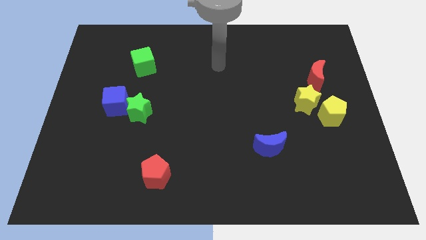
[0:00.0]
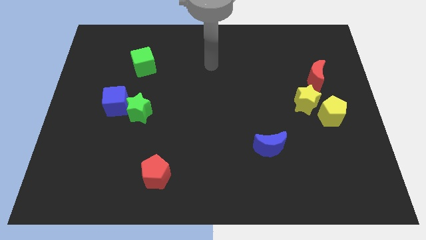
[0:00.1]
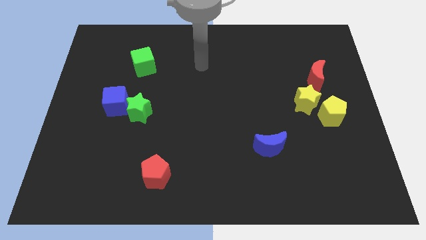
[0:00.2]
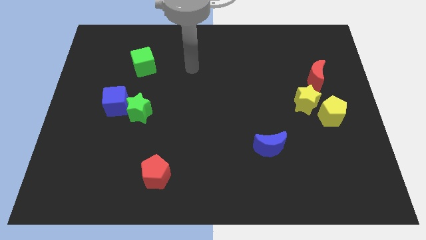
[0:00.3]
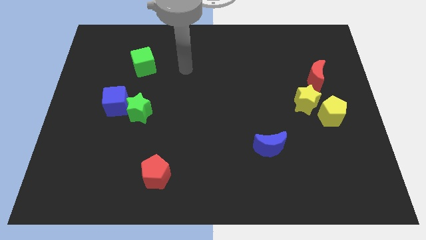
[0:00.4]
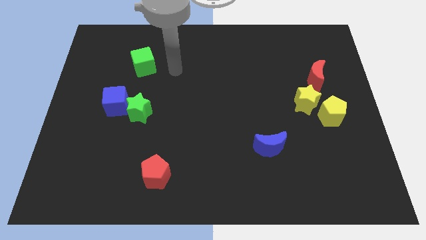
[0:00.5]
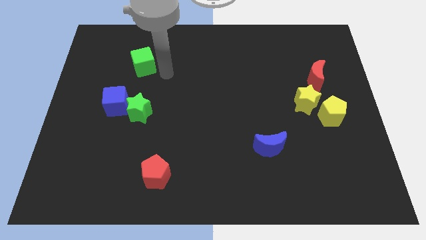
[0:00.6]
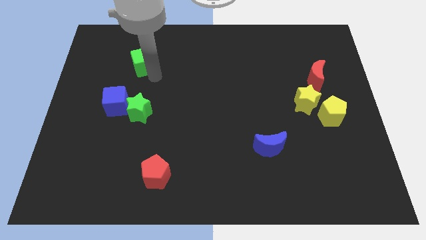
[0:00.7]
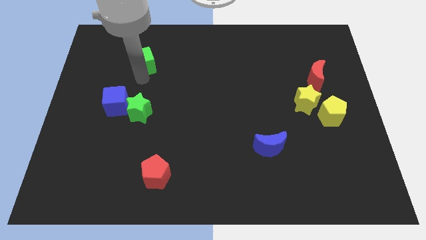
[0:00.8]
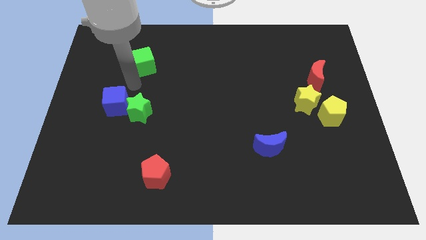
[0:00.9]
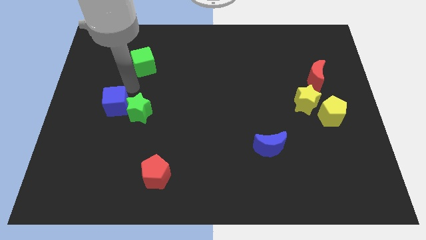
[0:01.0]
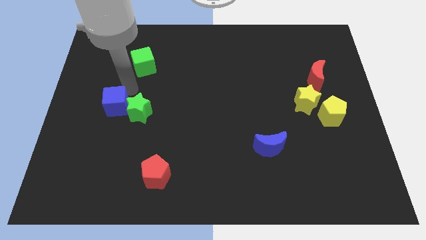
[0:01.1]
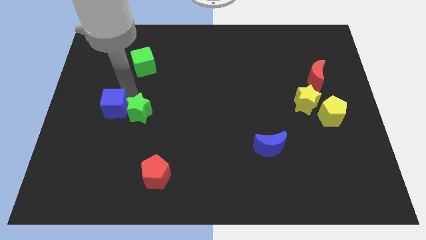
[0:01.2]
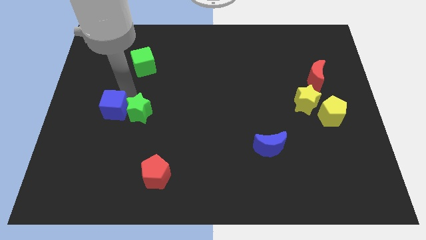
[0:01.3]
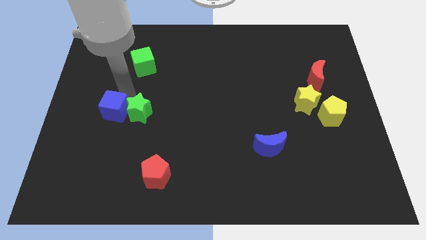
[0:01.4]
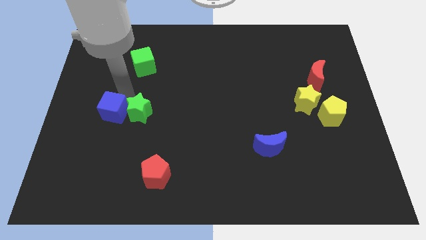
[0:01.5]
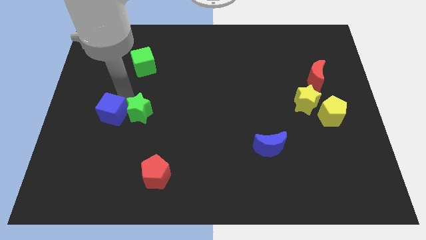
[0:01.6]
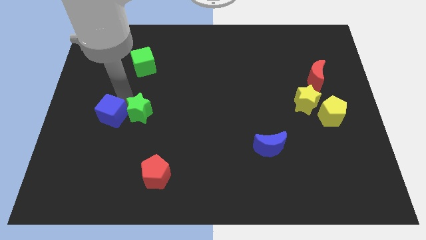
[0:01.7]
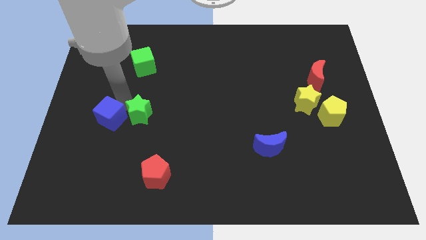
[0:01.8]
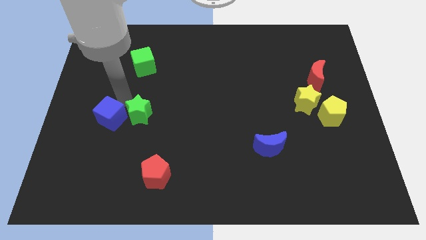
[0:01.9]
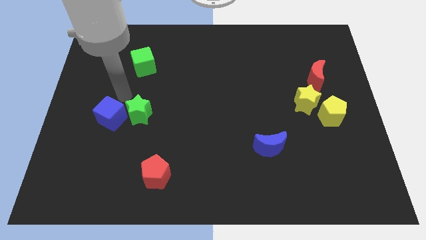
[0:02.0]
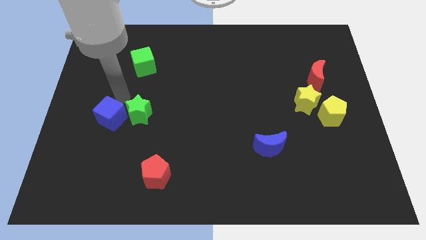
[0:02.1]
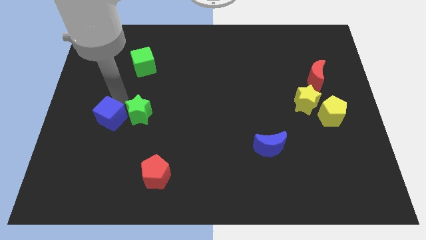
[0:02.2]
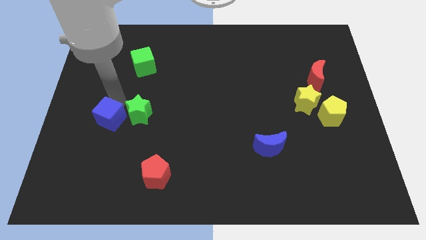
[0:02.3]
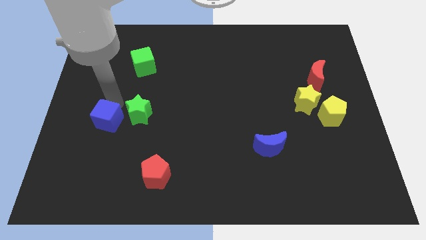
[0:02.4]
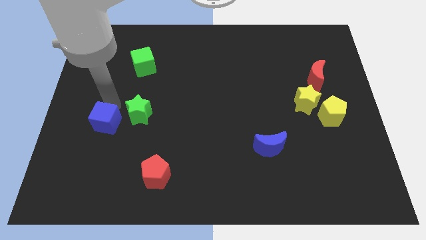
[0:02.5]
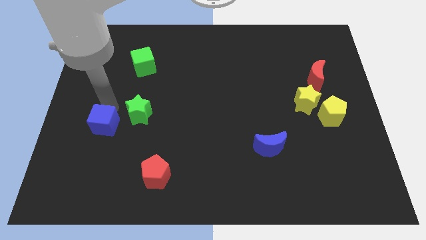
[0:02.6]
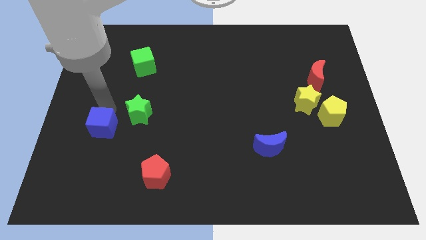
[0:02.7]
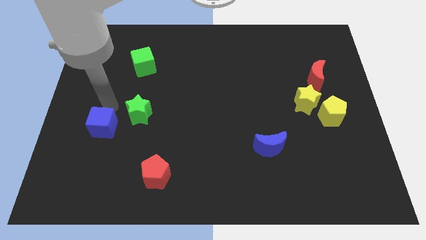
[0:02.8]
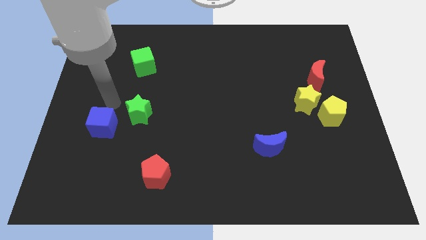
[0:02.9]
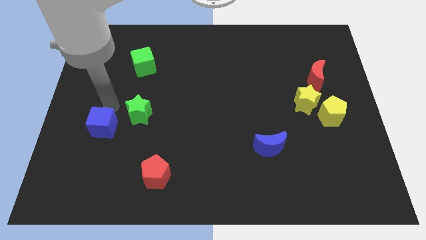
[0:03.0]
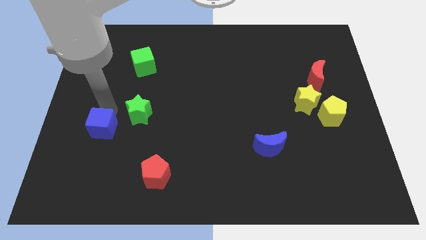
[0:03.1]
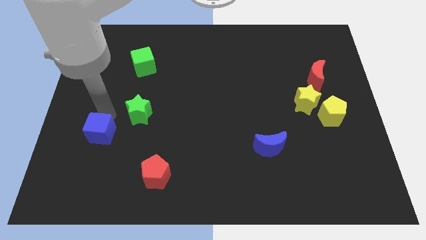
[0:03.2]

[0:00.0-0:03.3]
slightly slide the blue cube downwards

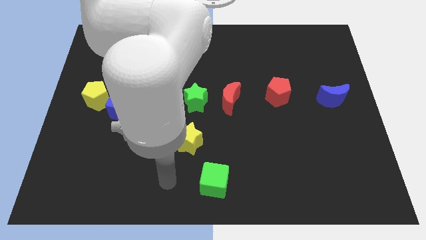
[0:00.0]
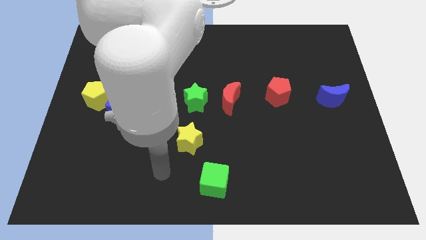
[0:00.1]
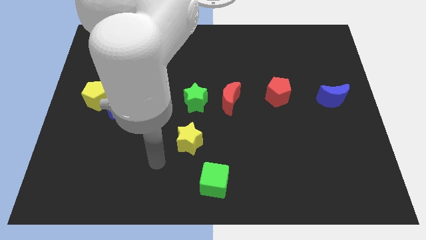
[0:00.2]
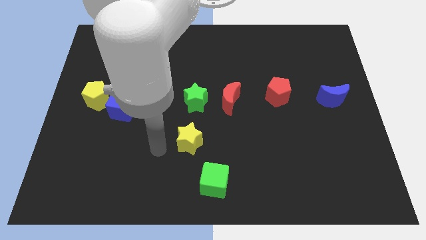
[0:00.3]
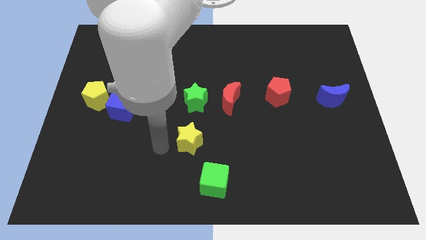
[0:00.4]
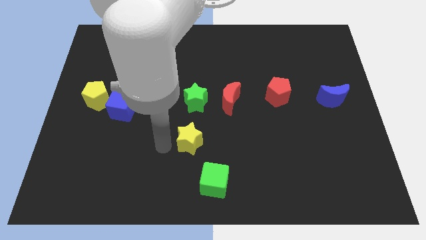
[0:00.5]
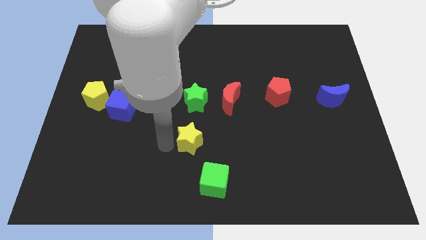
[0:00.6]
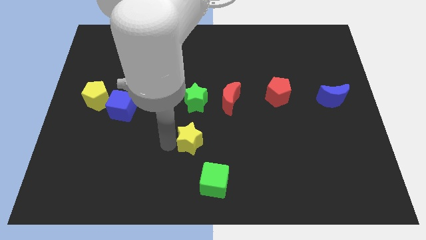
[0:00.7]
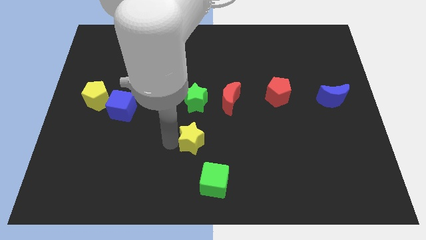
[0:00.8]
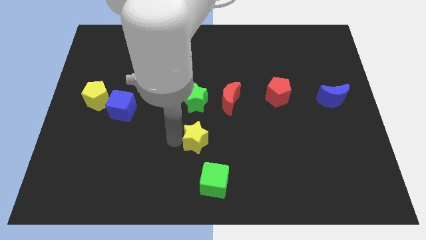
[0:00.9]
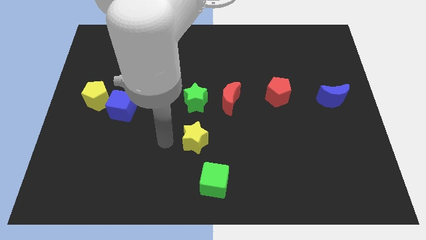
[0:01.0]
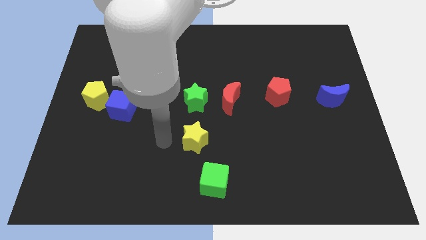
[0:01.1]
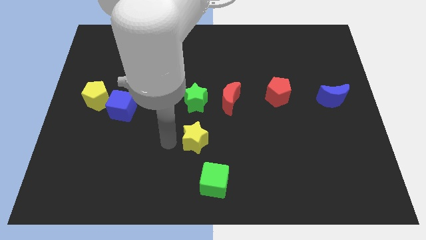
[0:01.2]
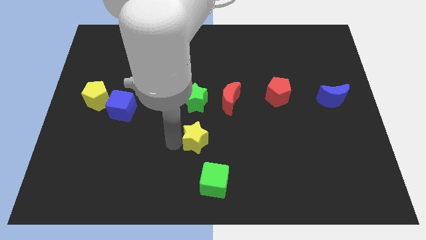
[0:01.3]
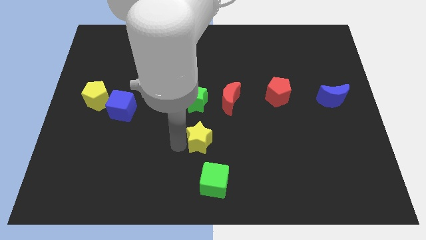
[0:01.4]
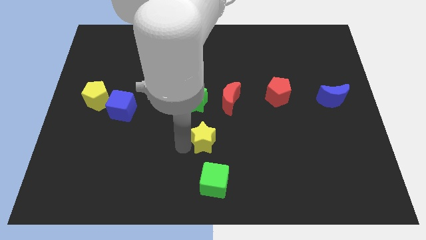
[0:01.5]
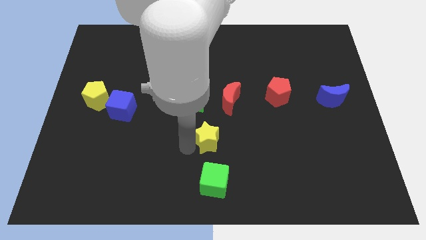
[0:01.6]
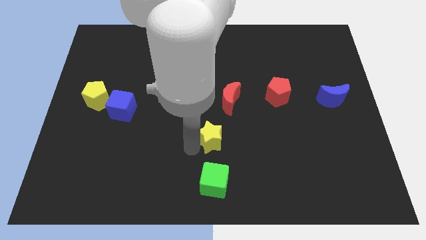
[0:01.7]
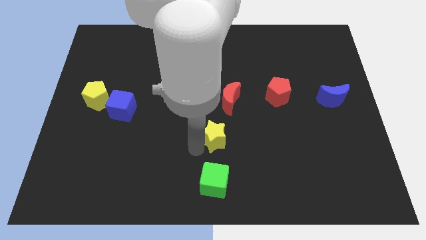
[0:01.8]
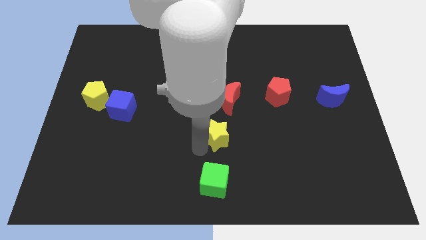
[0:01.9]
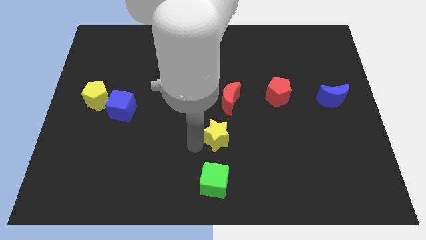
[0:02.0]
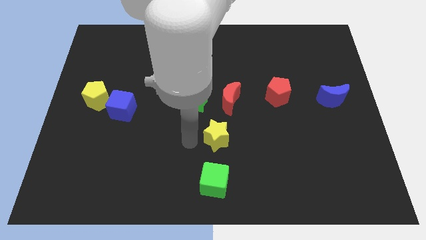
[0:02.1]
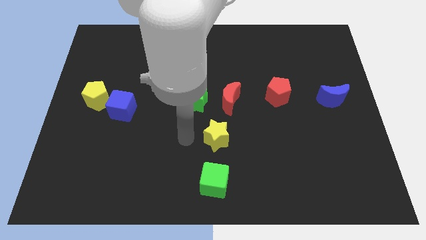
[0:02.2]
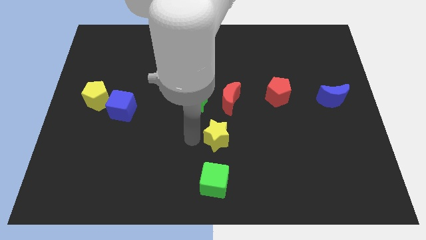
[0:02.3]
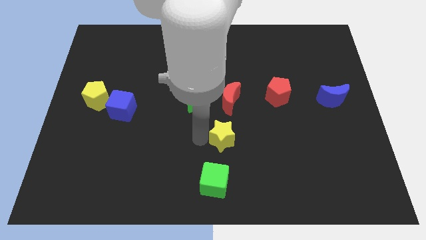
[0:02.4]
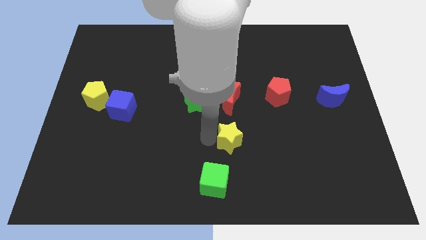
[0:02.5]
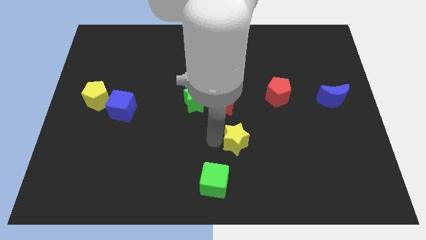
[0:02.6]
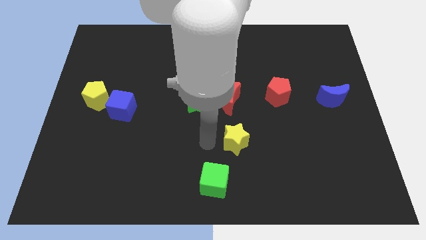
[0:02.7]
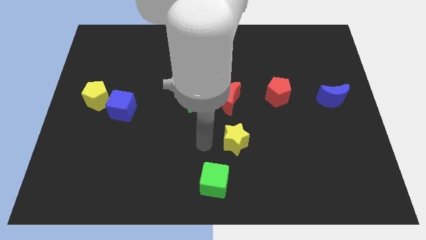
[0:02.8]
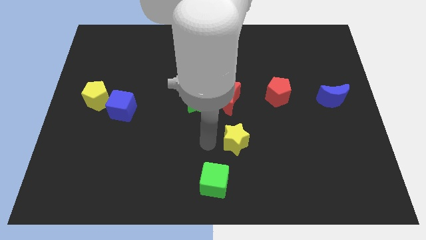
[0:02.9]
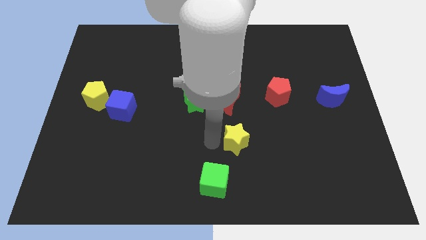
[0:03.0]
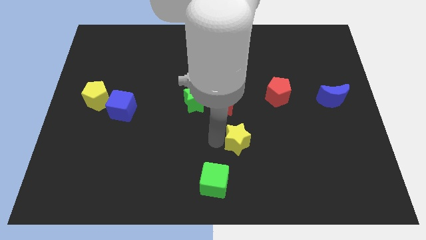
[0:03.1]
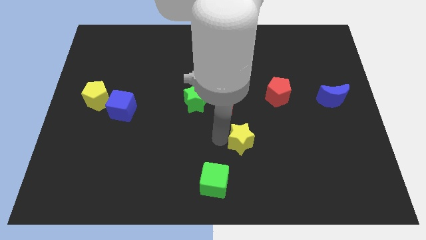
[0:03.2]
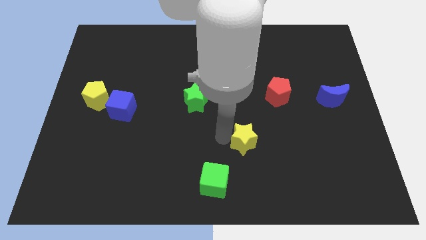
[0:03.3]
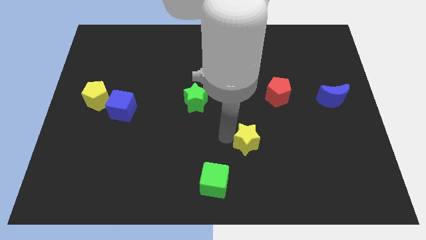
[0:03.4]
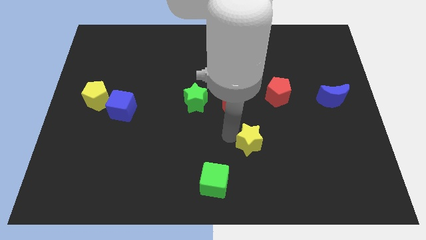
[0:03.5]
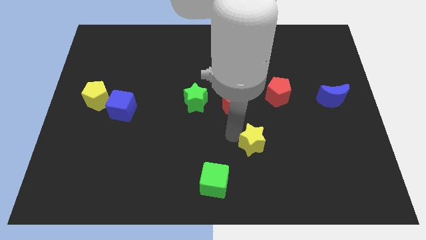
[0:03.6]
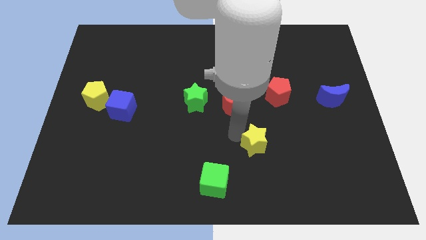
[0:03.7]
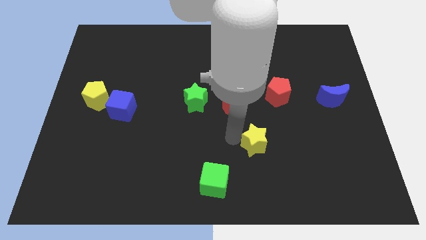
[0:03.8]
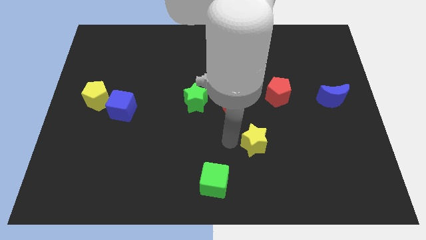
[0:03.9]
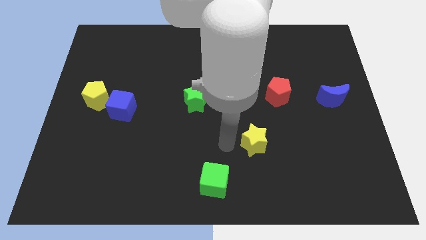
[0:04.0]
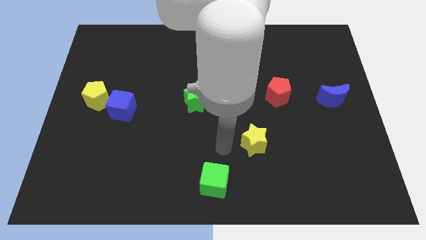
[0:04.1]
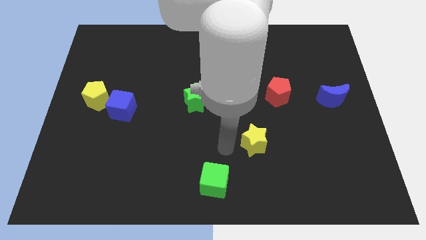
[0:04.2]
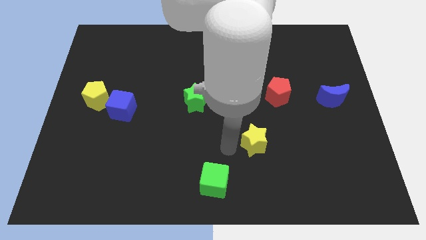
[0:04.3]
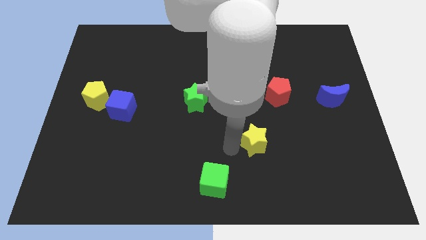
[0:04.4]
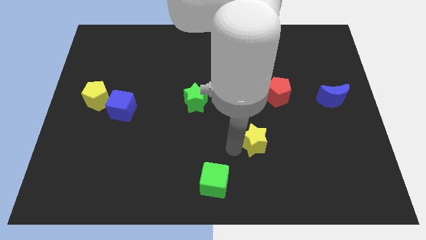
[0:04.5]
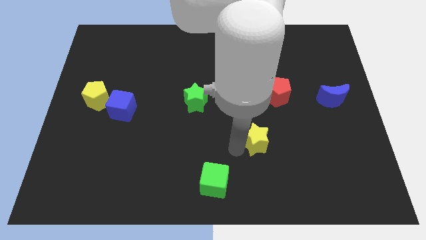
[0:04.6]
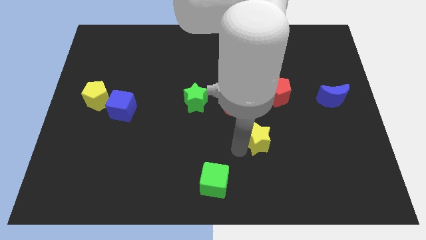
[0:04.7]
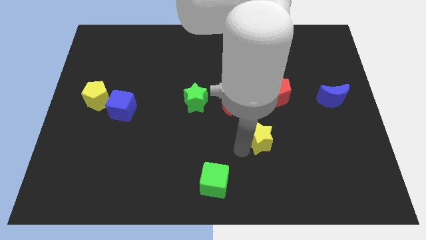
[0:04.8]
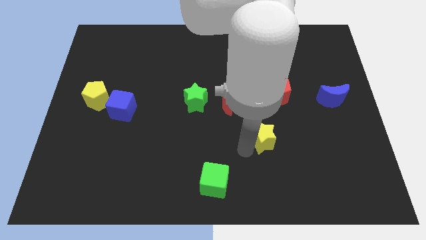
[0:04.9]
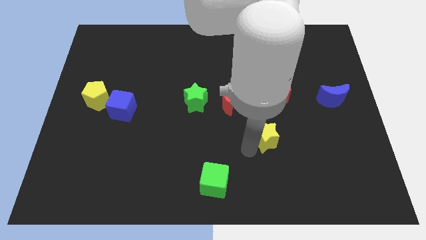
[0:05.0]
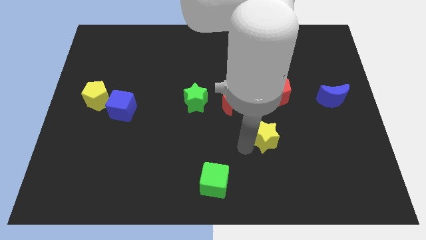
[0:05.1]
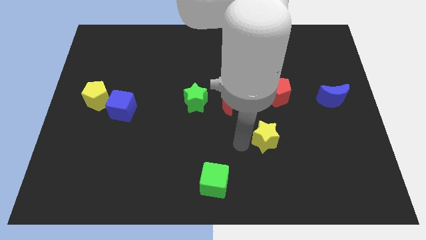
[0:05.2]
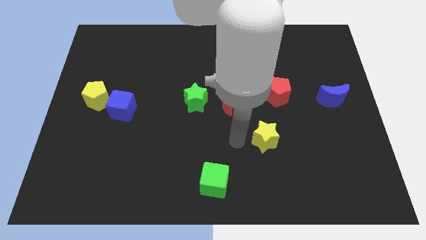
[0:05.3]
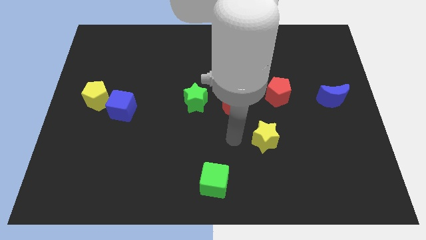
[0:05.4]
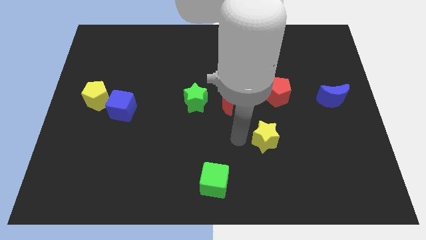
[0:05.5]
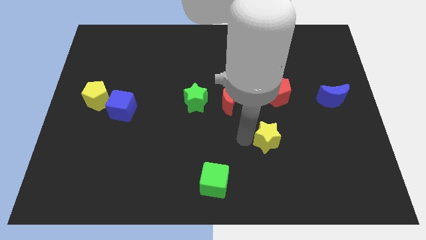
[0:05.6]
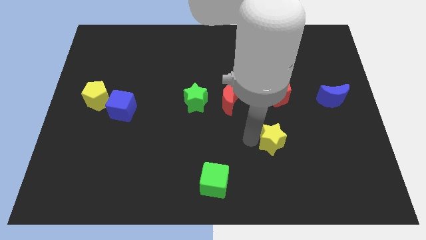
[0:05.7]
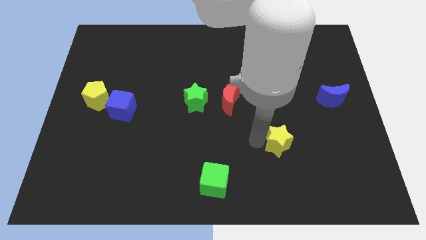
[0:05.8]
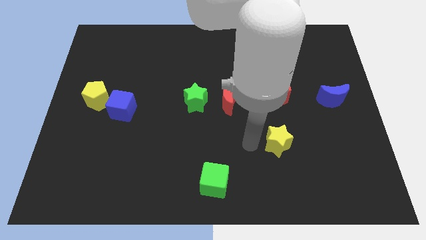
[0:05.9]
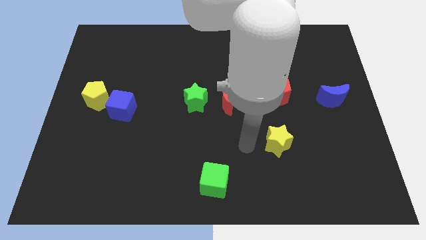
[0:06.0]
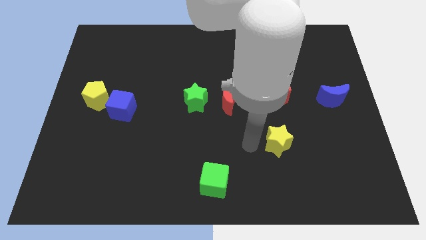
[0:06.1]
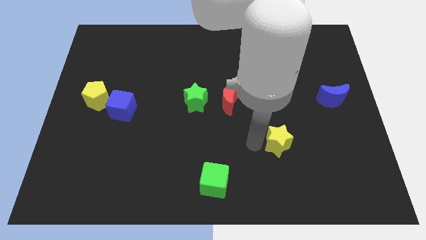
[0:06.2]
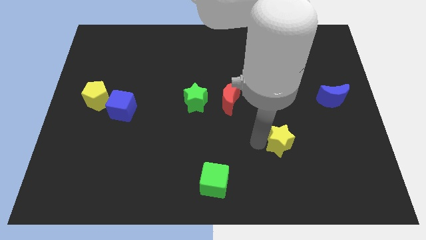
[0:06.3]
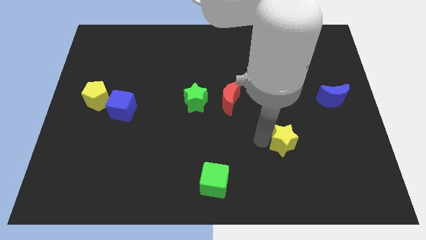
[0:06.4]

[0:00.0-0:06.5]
slide the yellow star to the right
